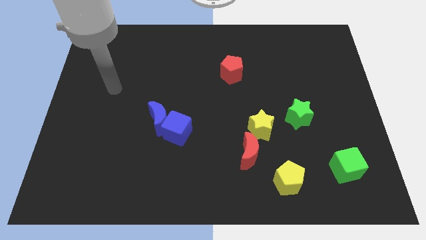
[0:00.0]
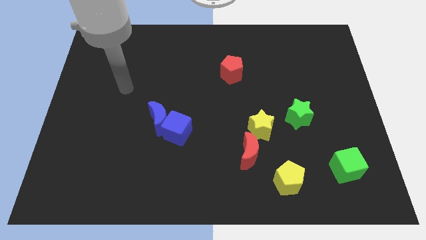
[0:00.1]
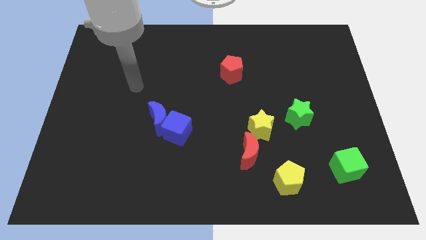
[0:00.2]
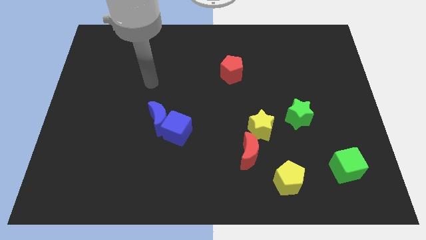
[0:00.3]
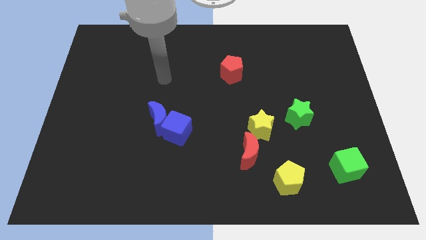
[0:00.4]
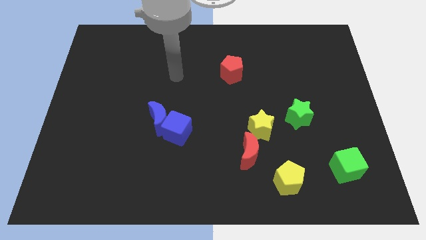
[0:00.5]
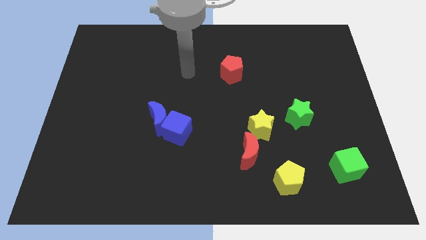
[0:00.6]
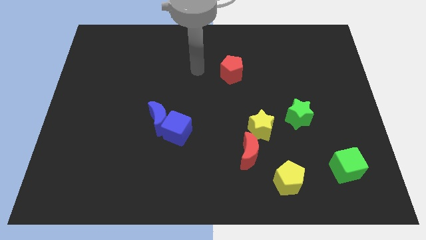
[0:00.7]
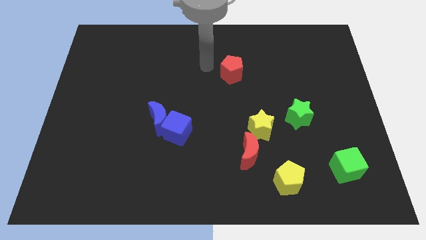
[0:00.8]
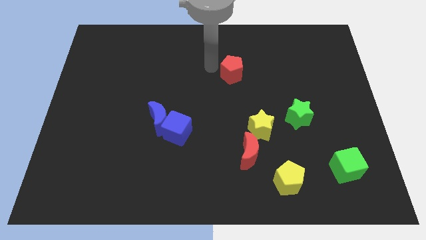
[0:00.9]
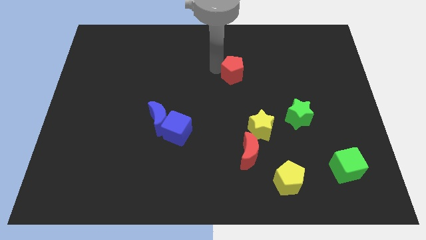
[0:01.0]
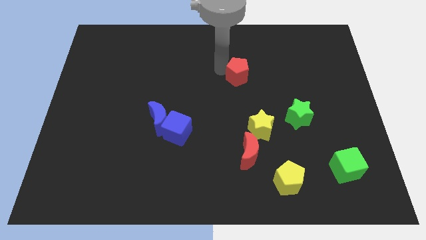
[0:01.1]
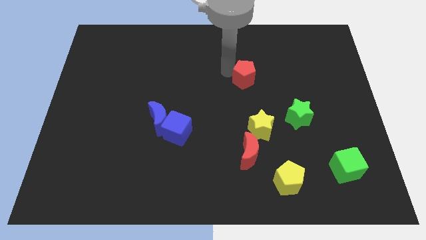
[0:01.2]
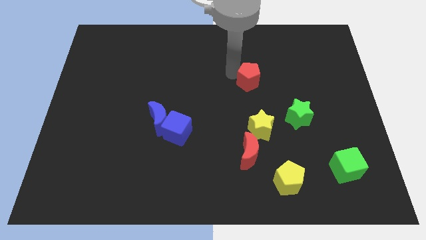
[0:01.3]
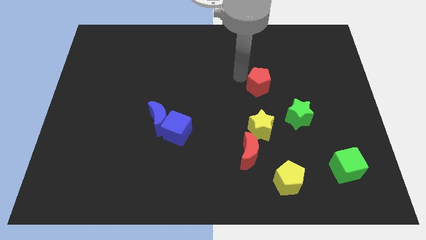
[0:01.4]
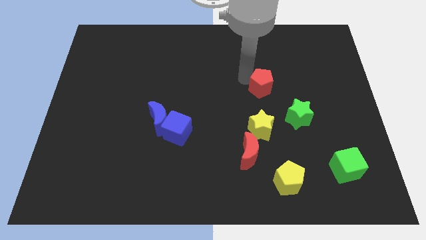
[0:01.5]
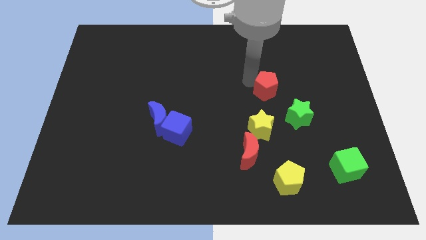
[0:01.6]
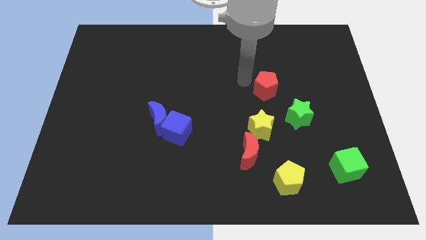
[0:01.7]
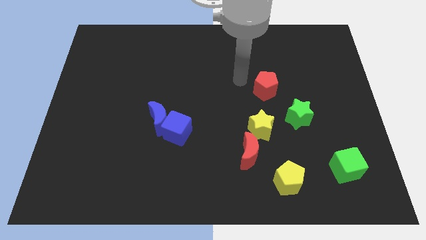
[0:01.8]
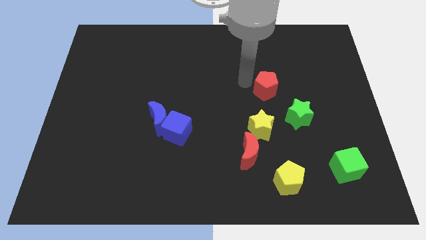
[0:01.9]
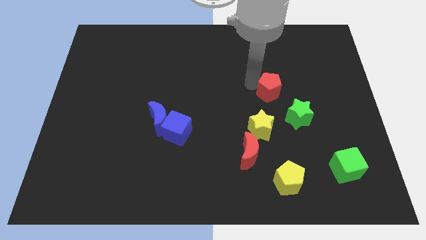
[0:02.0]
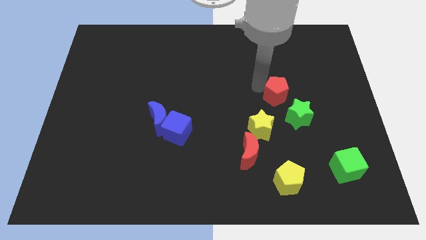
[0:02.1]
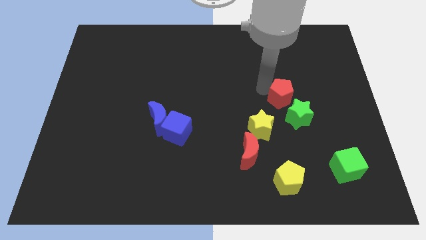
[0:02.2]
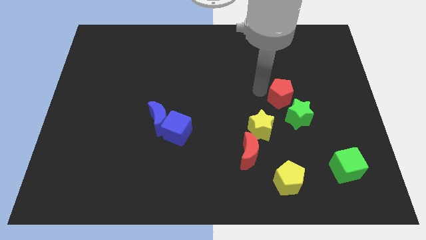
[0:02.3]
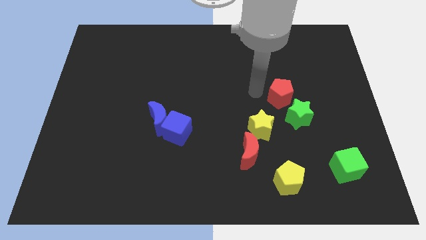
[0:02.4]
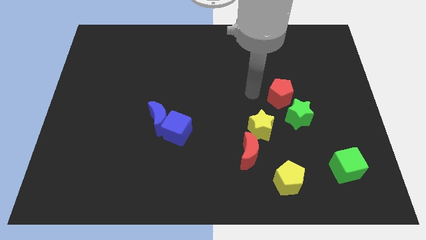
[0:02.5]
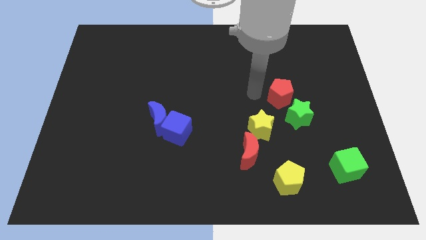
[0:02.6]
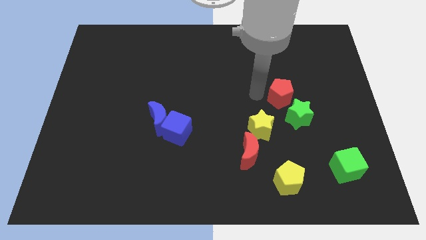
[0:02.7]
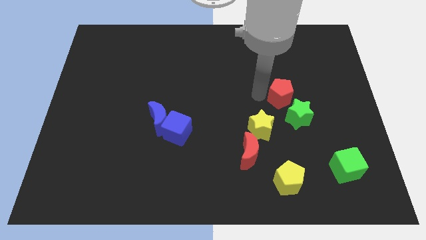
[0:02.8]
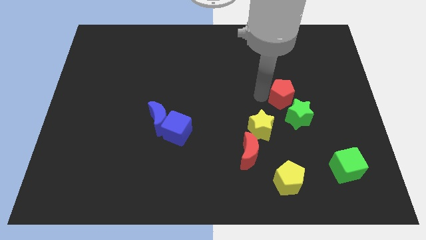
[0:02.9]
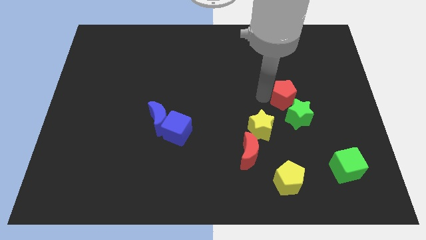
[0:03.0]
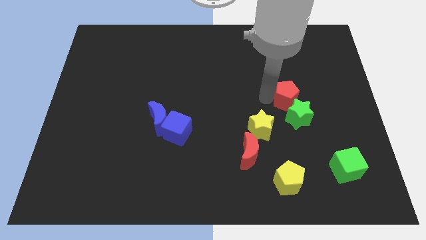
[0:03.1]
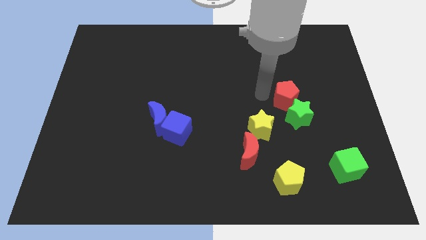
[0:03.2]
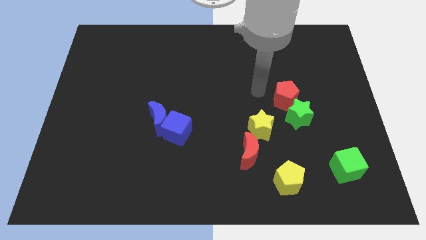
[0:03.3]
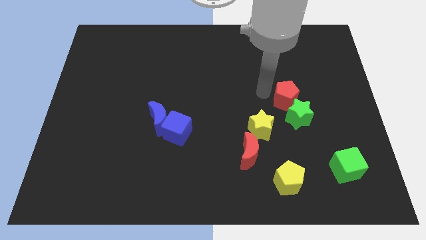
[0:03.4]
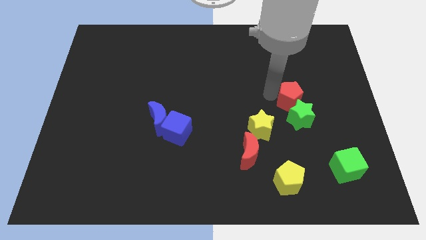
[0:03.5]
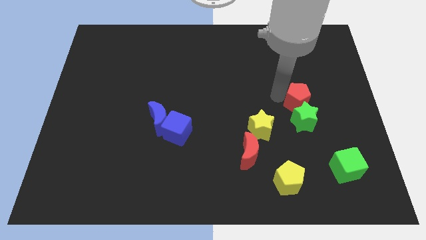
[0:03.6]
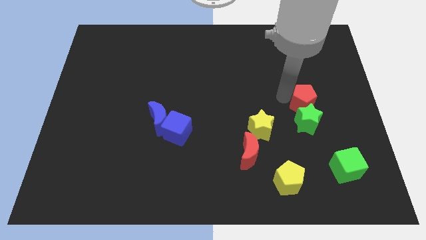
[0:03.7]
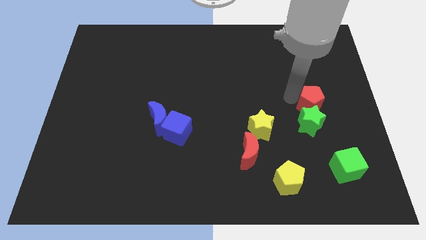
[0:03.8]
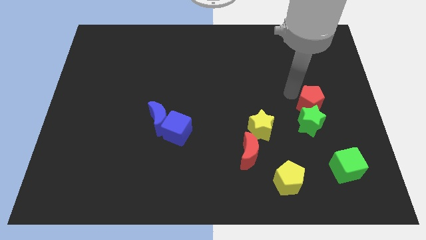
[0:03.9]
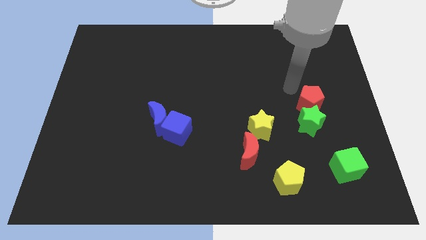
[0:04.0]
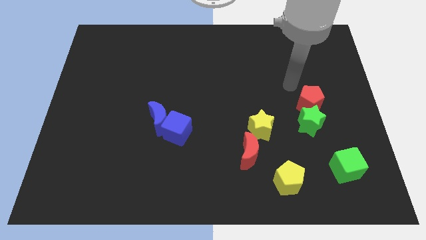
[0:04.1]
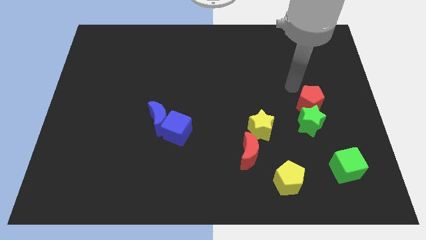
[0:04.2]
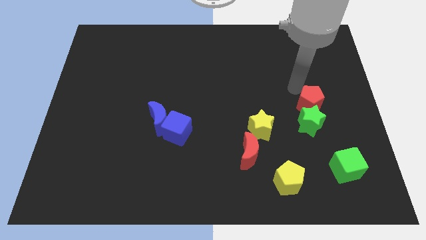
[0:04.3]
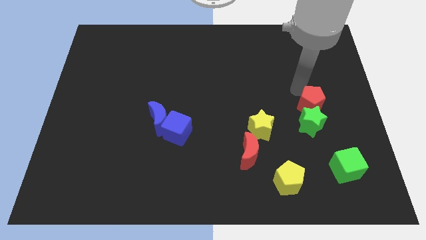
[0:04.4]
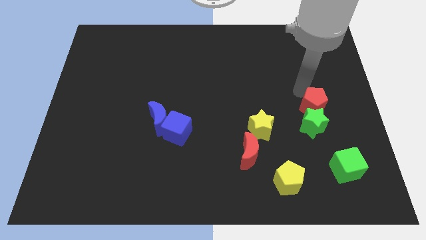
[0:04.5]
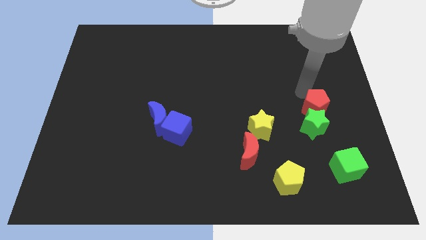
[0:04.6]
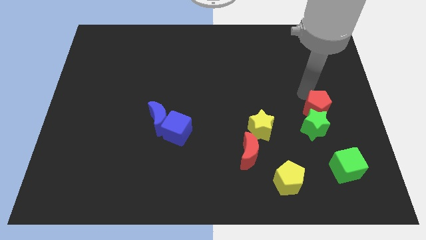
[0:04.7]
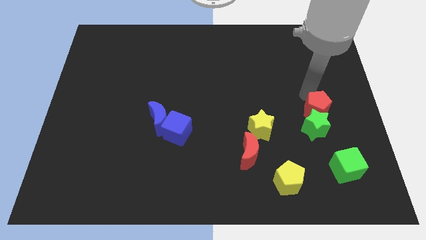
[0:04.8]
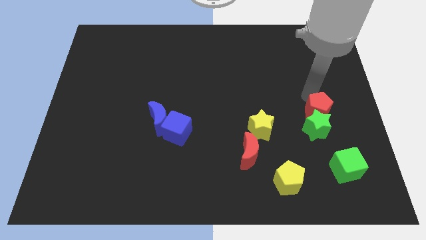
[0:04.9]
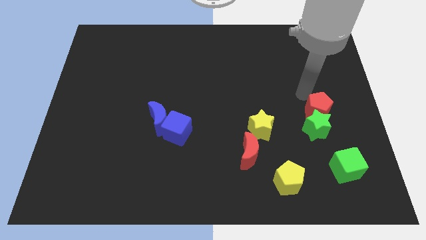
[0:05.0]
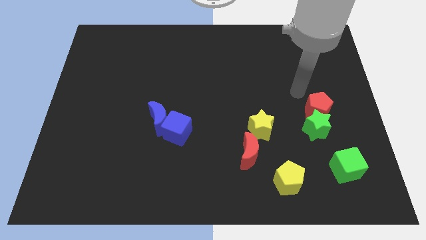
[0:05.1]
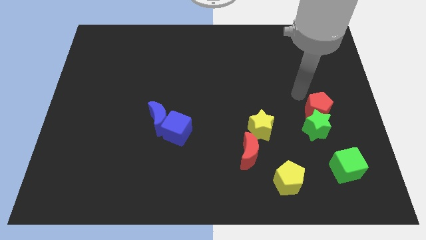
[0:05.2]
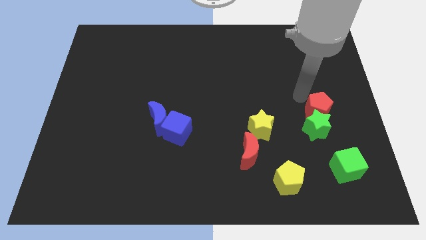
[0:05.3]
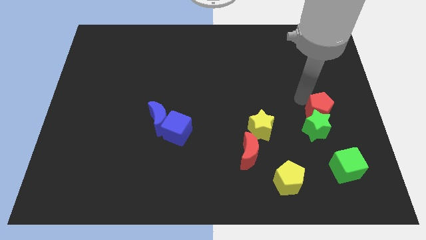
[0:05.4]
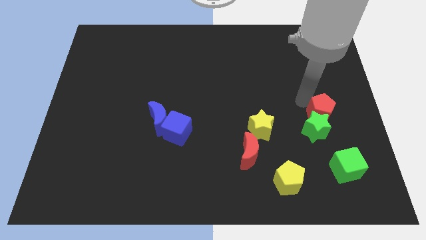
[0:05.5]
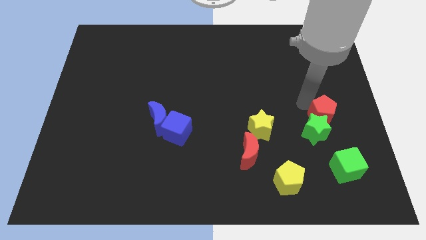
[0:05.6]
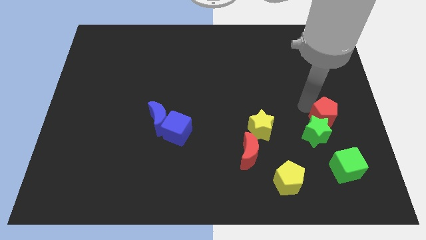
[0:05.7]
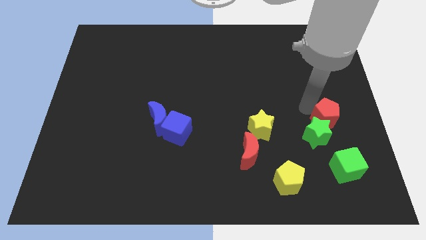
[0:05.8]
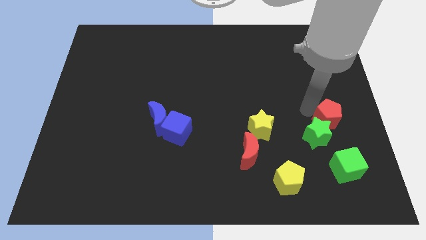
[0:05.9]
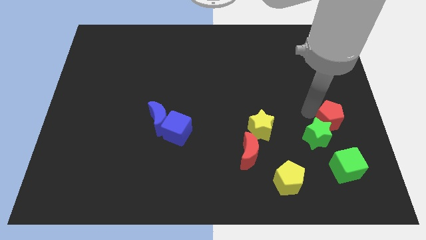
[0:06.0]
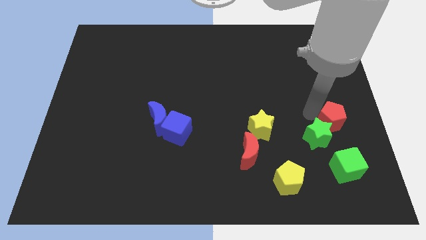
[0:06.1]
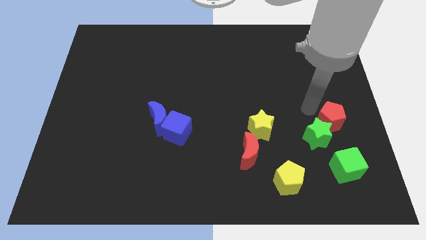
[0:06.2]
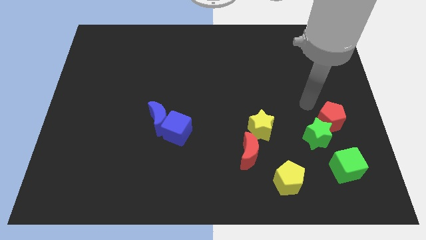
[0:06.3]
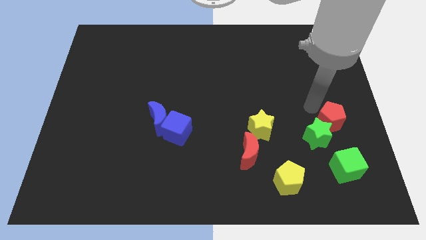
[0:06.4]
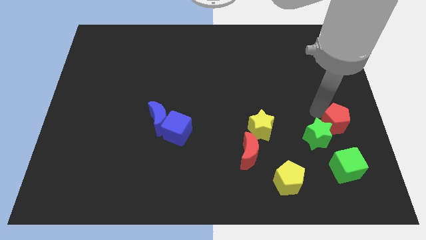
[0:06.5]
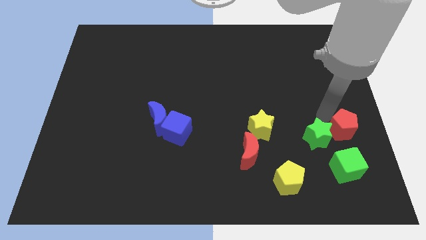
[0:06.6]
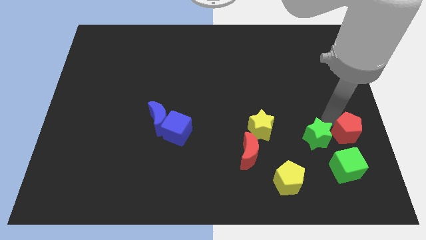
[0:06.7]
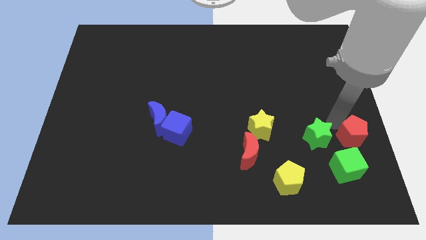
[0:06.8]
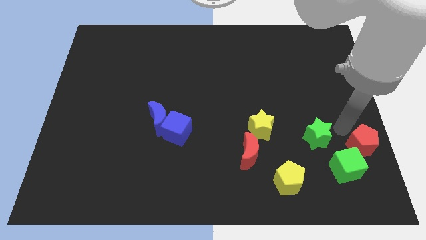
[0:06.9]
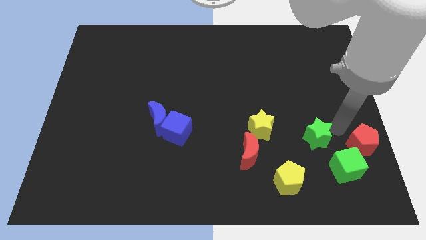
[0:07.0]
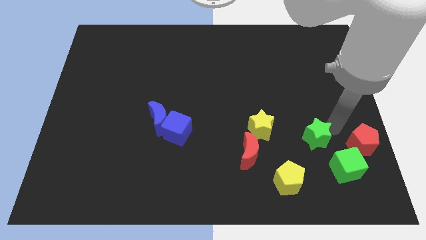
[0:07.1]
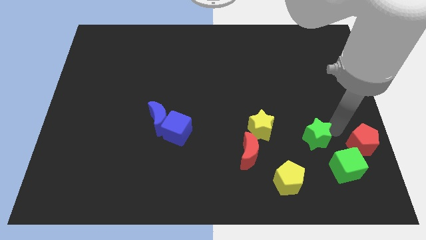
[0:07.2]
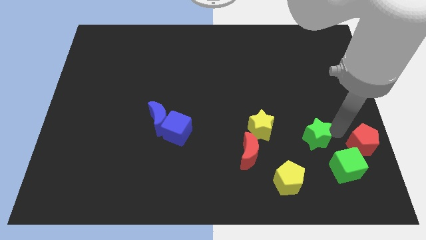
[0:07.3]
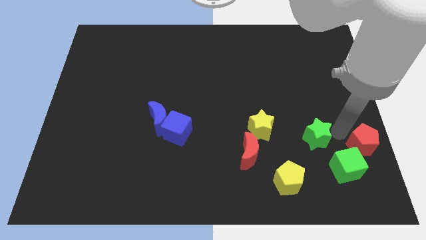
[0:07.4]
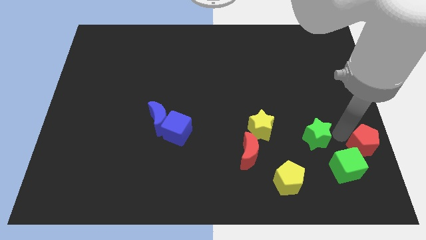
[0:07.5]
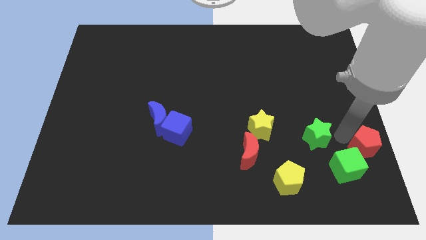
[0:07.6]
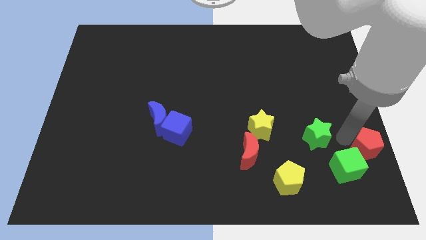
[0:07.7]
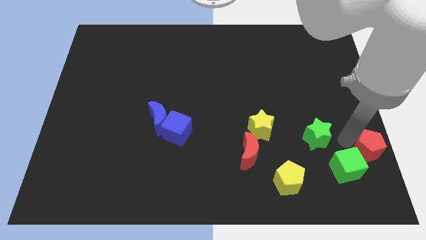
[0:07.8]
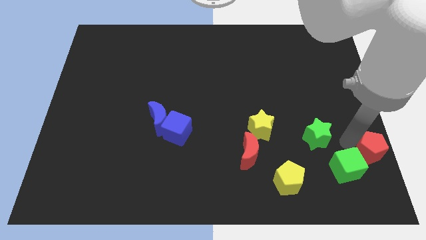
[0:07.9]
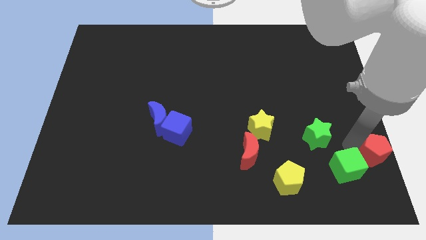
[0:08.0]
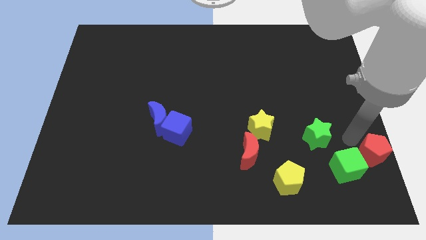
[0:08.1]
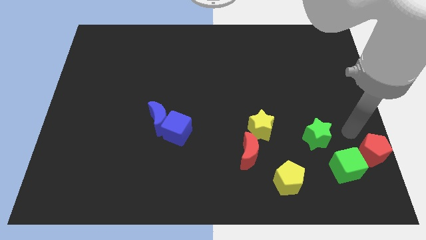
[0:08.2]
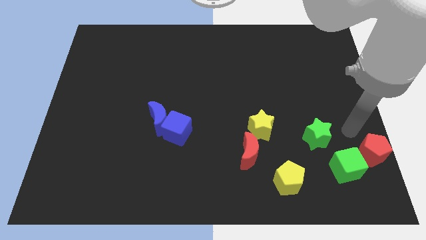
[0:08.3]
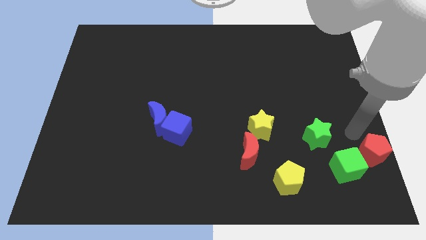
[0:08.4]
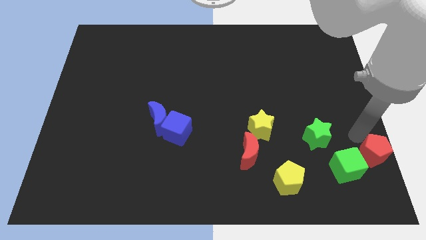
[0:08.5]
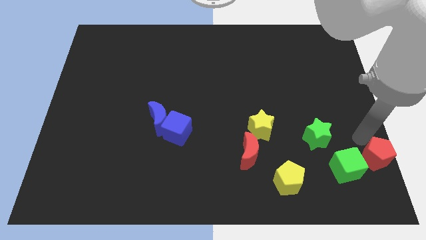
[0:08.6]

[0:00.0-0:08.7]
slide the red pentagon to the bottom right
